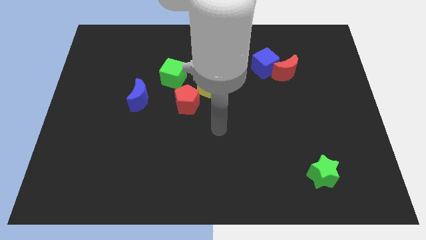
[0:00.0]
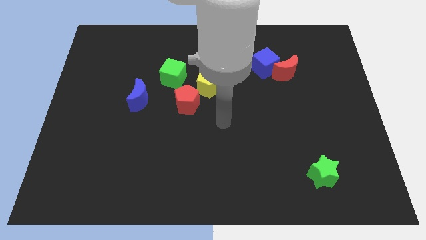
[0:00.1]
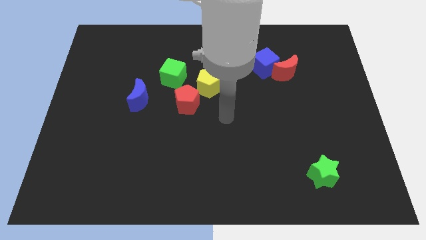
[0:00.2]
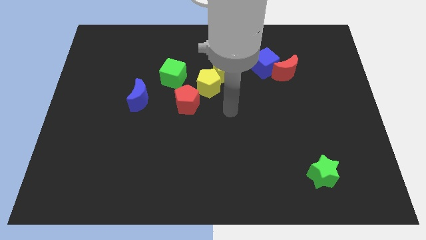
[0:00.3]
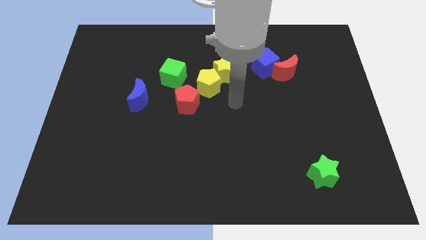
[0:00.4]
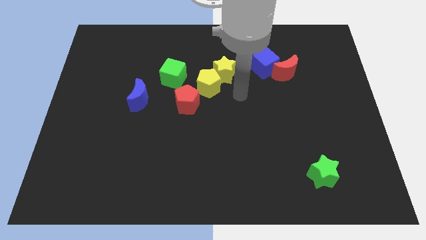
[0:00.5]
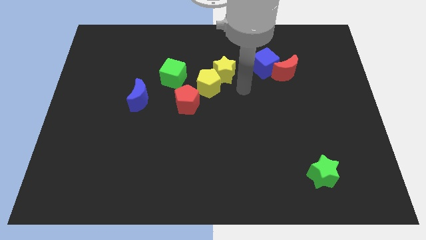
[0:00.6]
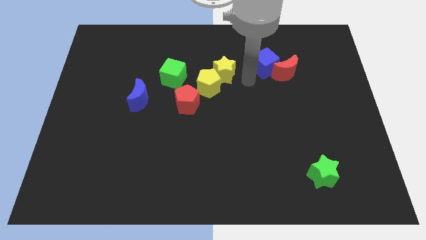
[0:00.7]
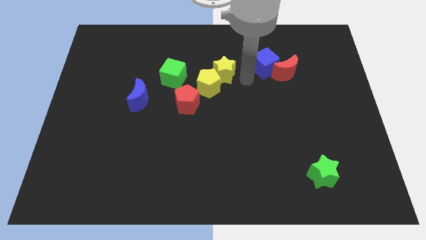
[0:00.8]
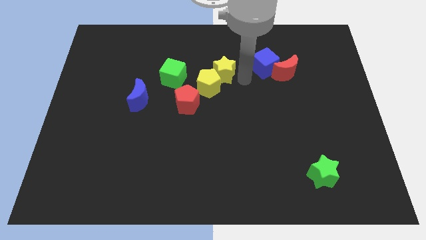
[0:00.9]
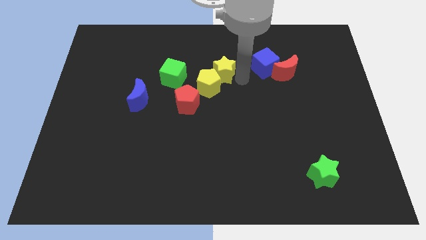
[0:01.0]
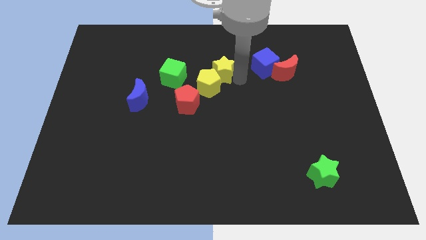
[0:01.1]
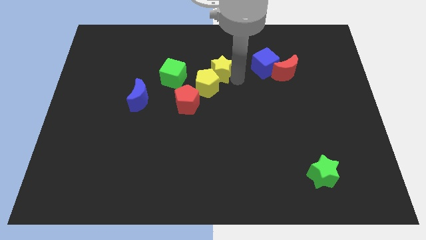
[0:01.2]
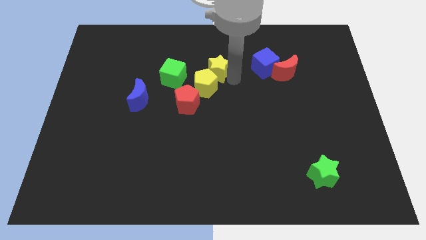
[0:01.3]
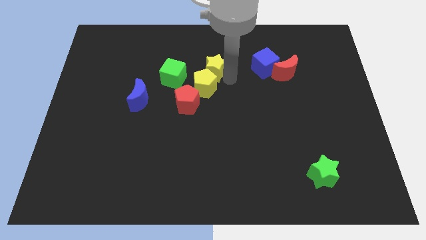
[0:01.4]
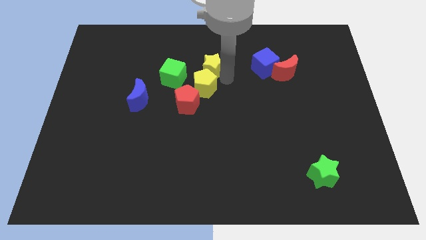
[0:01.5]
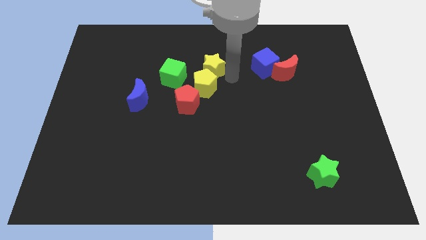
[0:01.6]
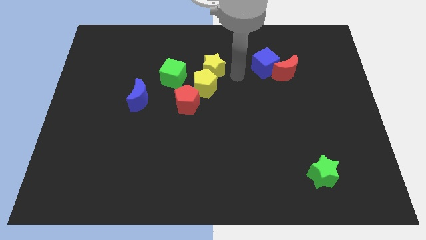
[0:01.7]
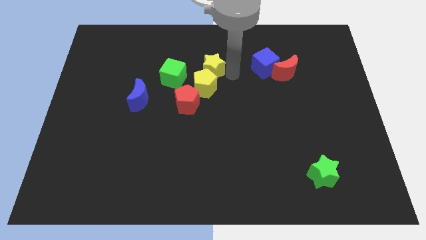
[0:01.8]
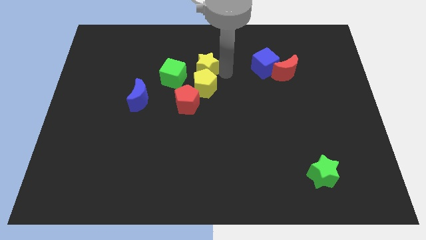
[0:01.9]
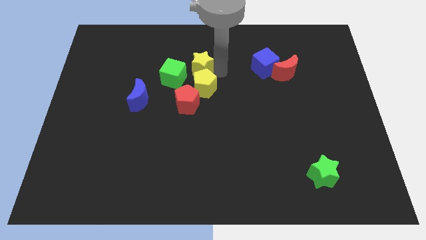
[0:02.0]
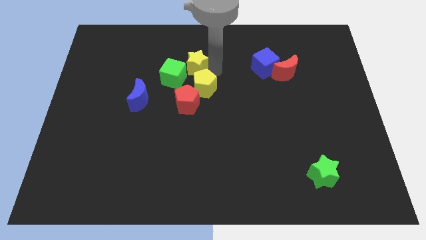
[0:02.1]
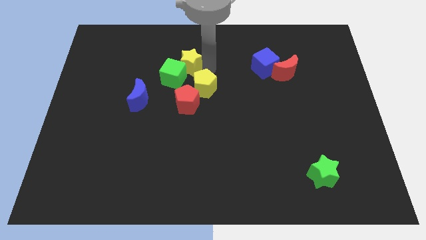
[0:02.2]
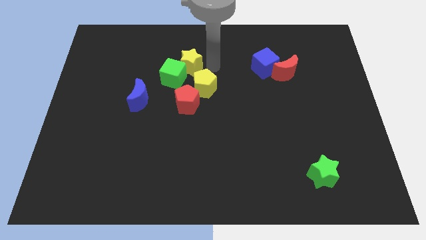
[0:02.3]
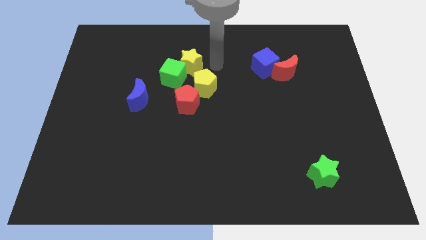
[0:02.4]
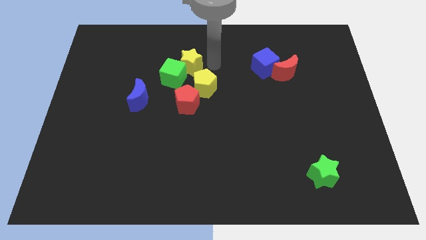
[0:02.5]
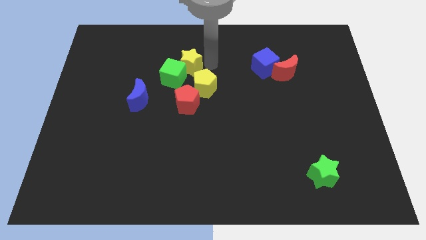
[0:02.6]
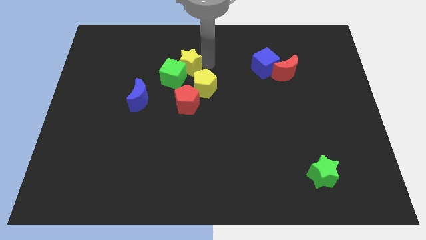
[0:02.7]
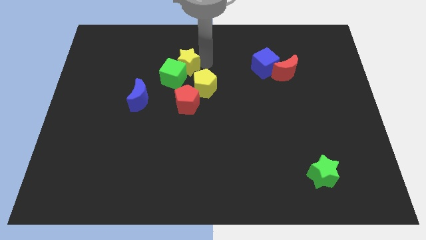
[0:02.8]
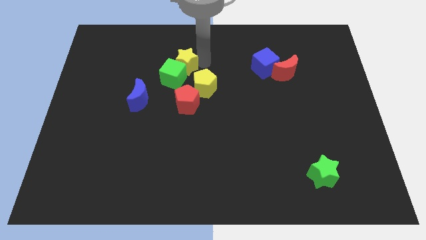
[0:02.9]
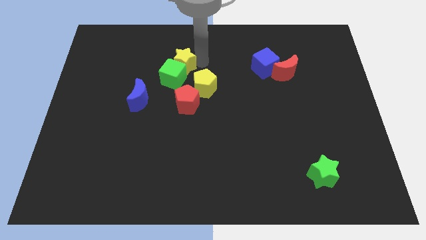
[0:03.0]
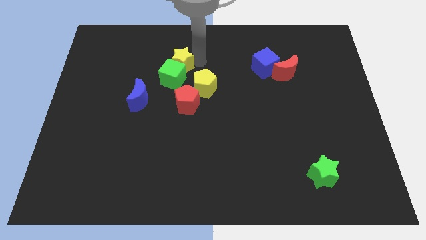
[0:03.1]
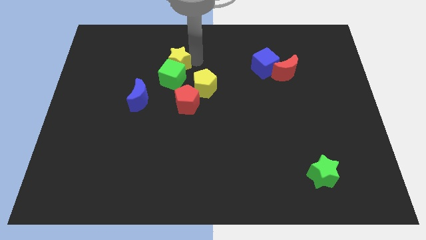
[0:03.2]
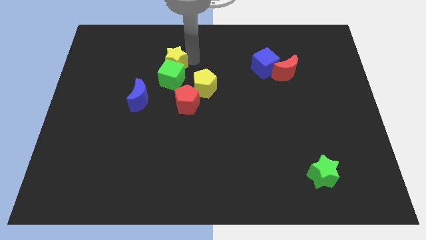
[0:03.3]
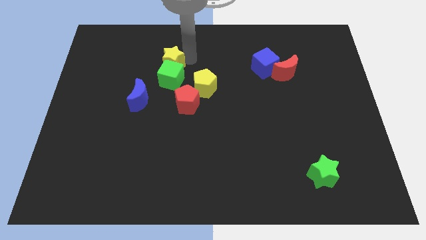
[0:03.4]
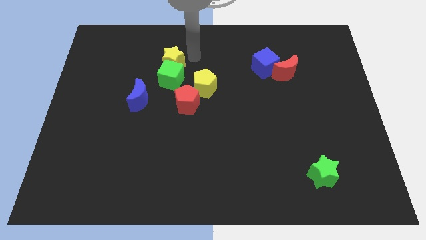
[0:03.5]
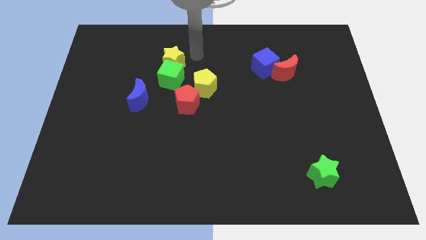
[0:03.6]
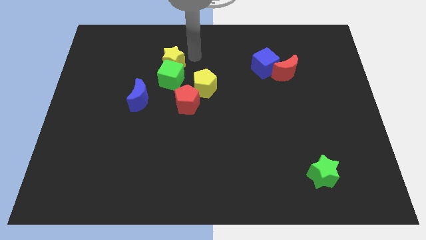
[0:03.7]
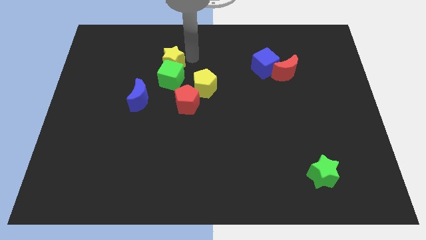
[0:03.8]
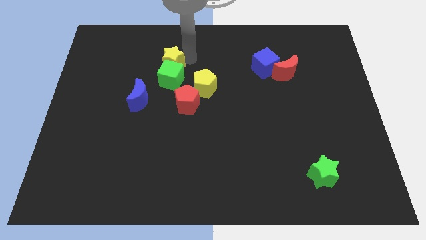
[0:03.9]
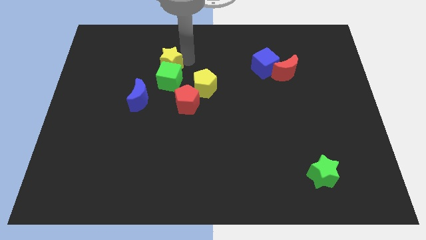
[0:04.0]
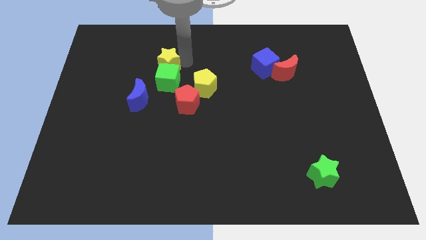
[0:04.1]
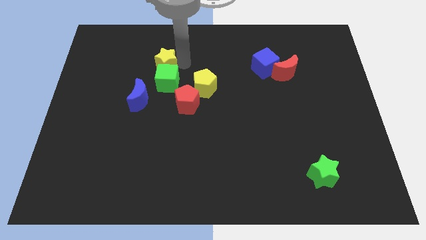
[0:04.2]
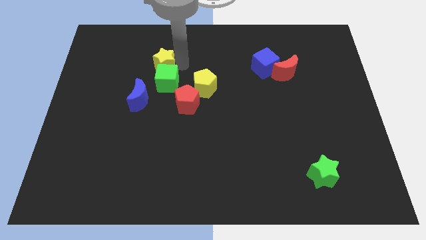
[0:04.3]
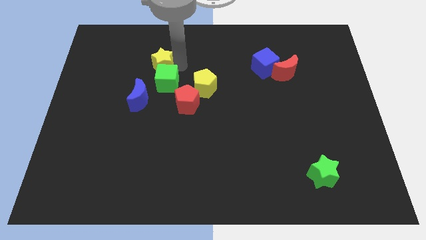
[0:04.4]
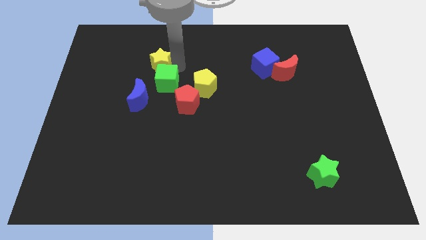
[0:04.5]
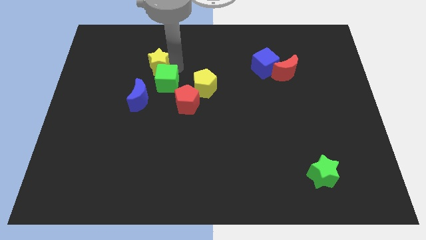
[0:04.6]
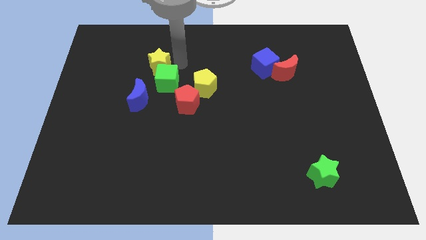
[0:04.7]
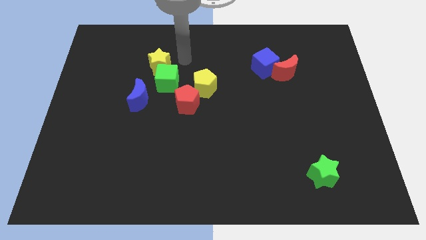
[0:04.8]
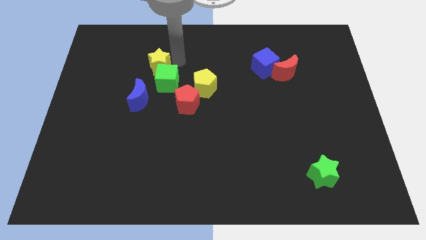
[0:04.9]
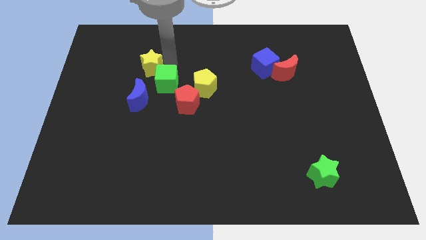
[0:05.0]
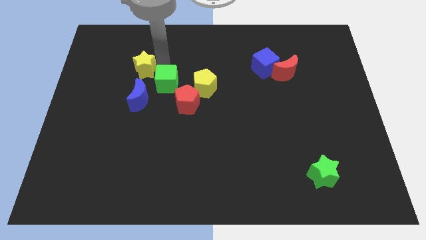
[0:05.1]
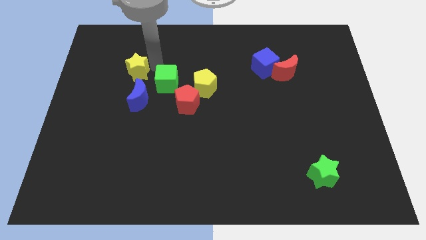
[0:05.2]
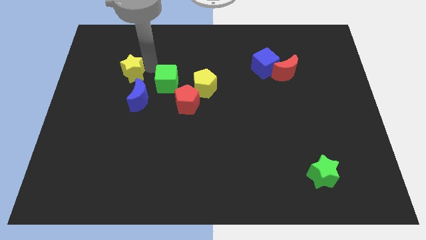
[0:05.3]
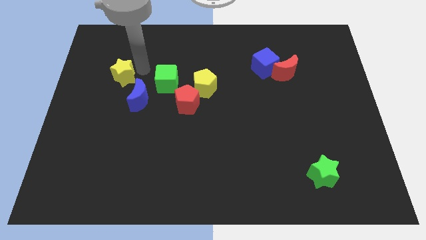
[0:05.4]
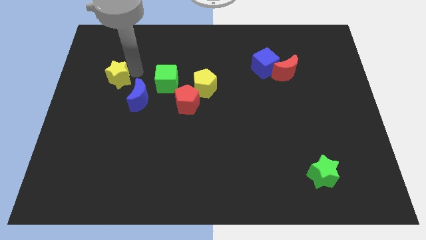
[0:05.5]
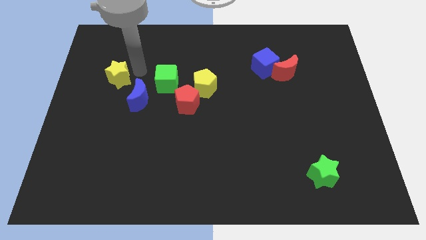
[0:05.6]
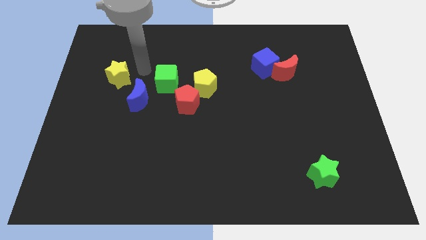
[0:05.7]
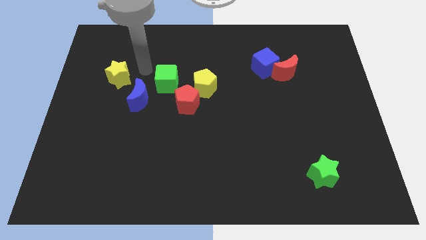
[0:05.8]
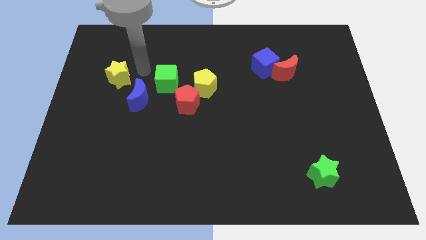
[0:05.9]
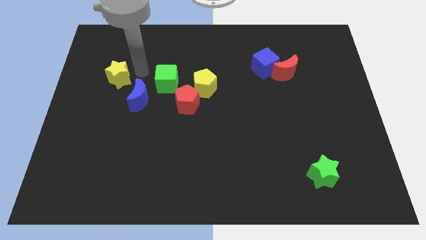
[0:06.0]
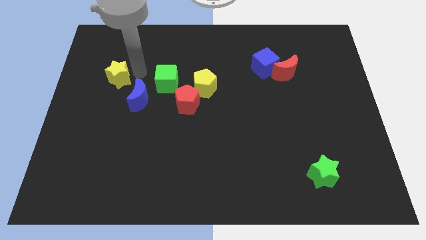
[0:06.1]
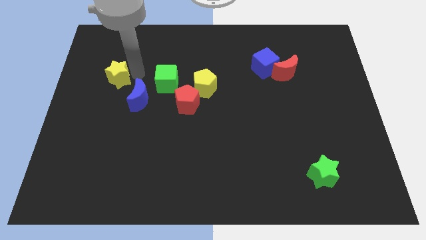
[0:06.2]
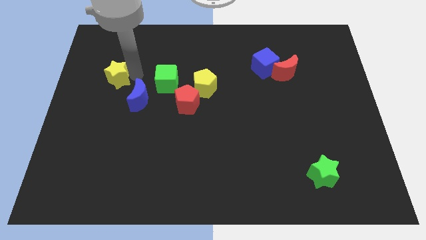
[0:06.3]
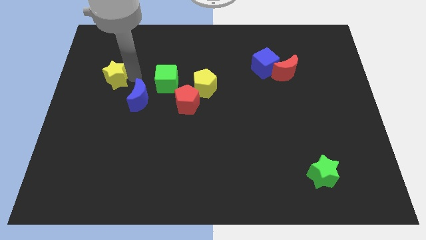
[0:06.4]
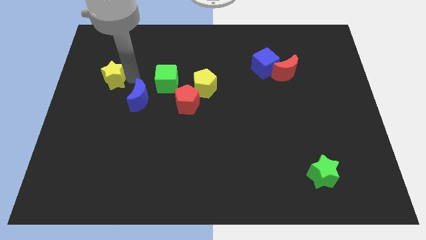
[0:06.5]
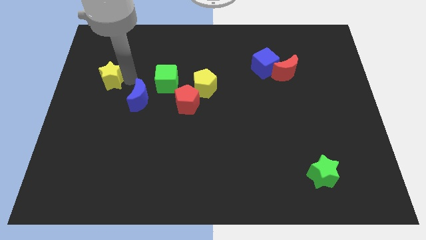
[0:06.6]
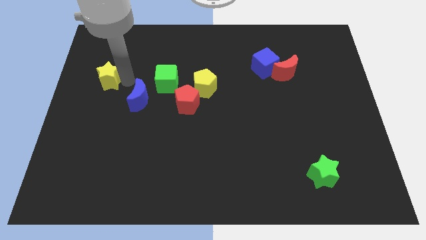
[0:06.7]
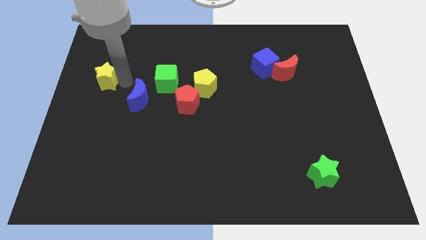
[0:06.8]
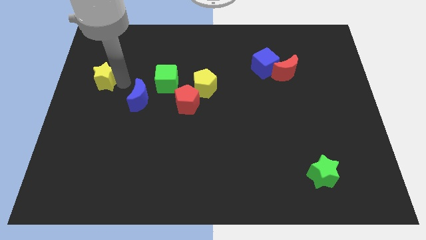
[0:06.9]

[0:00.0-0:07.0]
move the yellow star to the center left

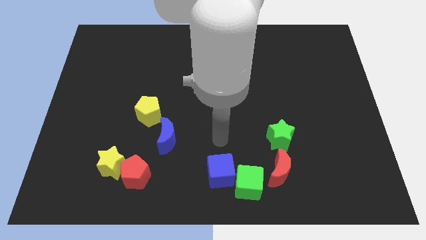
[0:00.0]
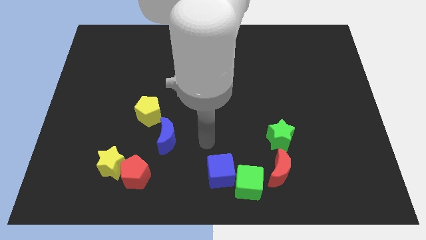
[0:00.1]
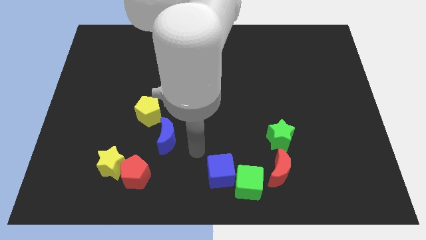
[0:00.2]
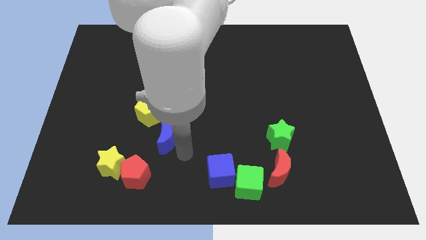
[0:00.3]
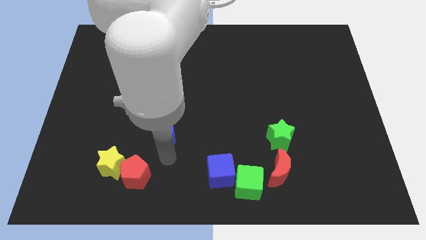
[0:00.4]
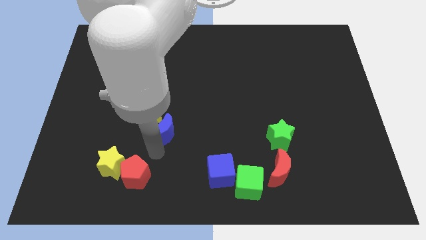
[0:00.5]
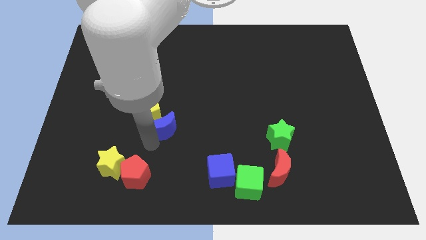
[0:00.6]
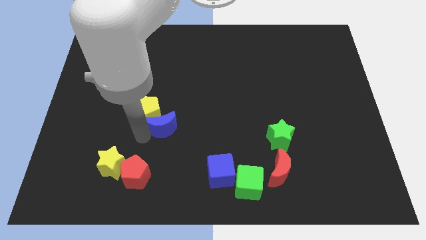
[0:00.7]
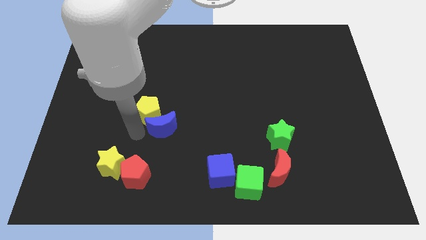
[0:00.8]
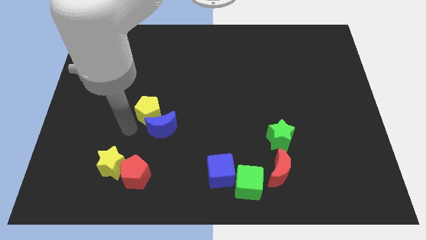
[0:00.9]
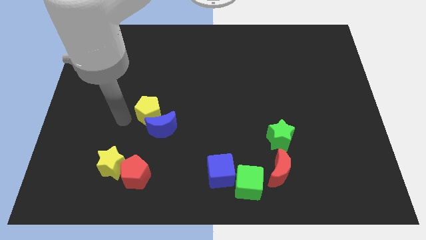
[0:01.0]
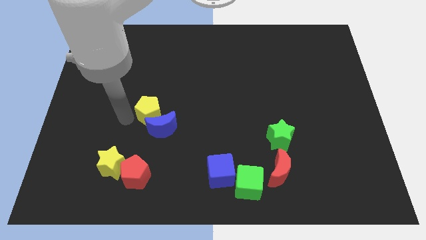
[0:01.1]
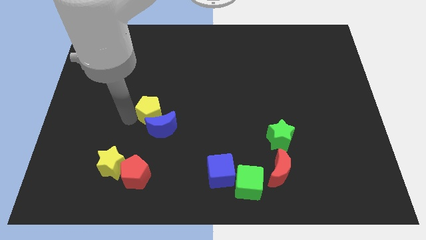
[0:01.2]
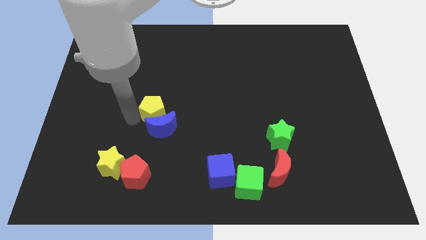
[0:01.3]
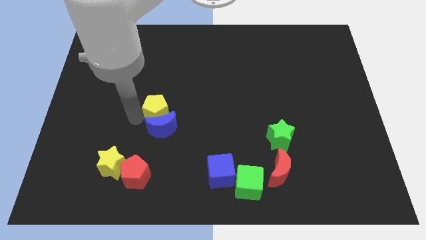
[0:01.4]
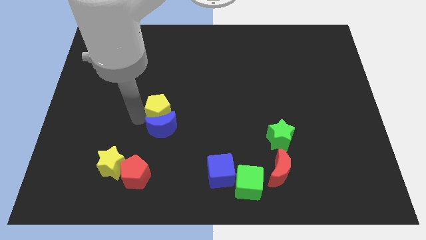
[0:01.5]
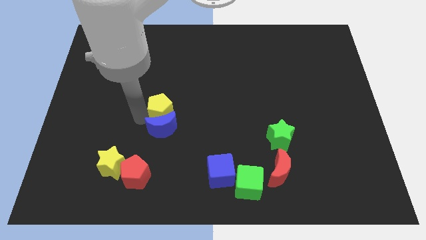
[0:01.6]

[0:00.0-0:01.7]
put the yellow pentagon to the middle of the board
